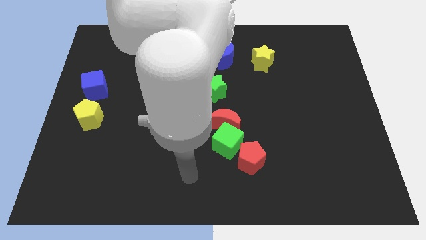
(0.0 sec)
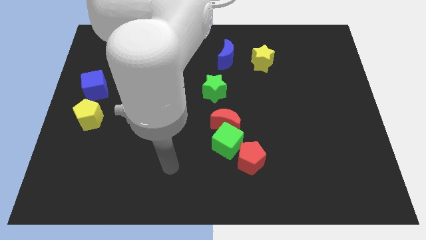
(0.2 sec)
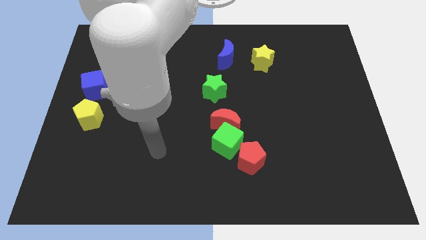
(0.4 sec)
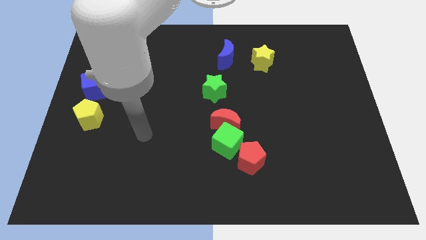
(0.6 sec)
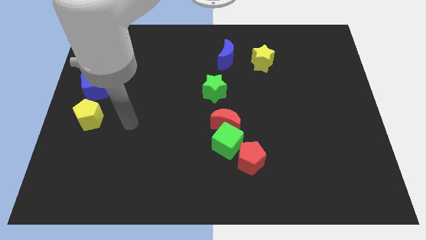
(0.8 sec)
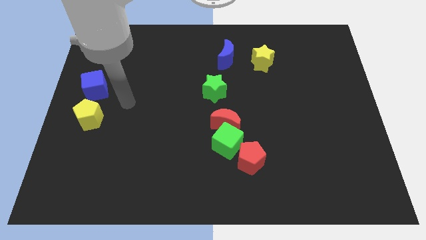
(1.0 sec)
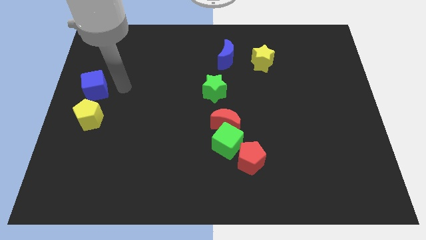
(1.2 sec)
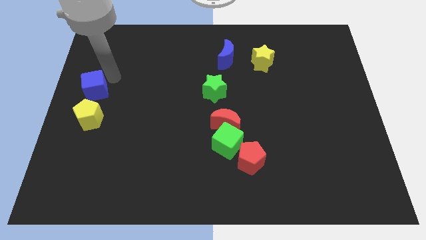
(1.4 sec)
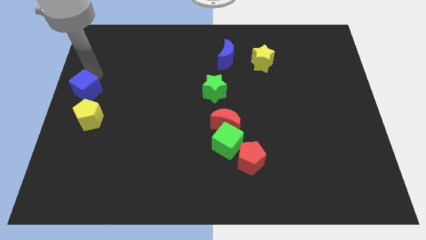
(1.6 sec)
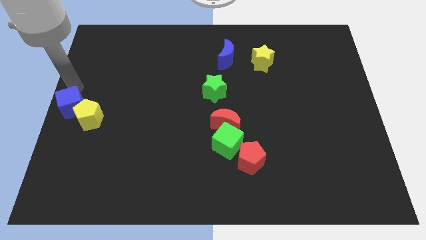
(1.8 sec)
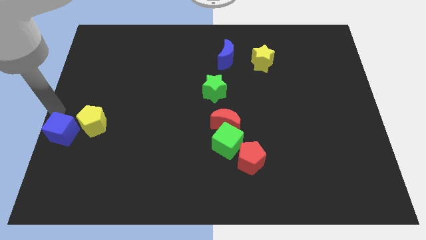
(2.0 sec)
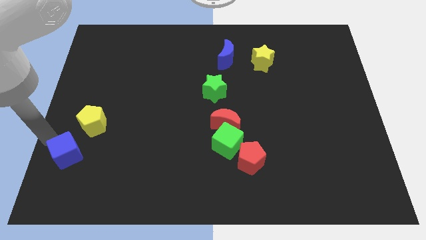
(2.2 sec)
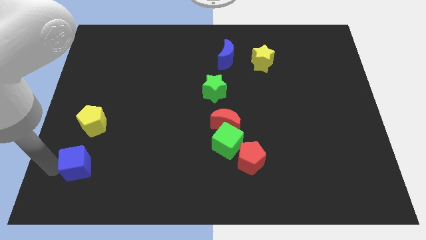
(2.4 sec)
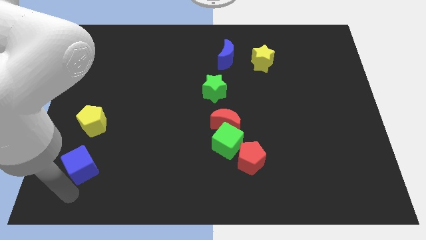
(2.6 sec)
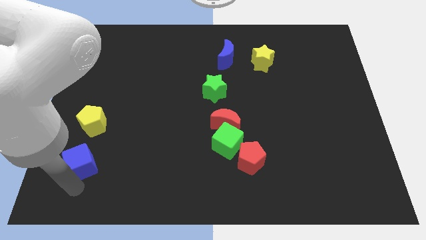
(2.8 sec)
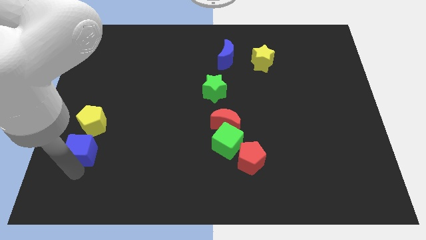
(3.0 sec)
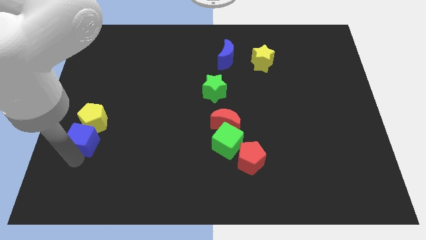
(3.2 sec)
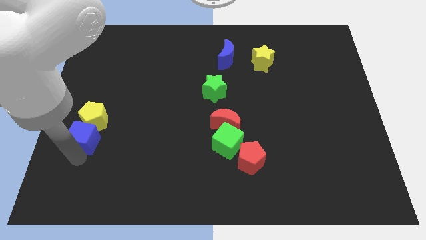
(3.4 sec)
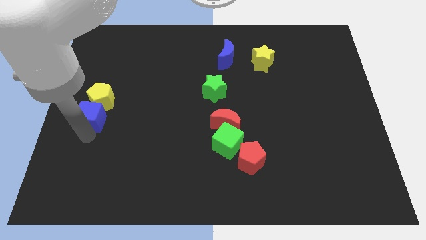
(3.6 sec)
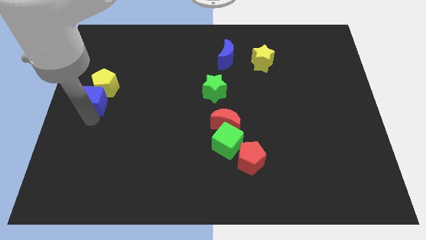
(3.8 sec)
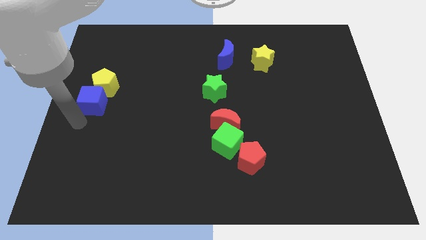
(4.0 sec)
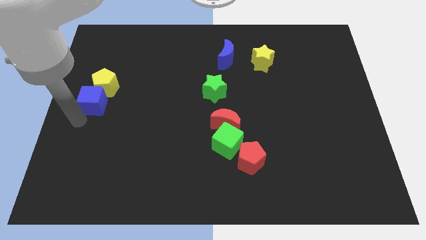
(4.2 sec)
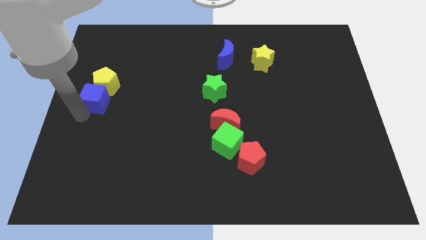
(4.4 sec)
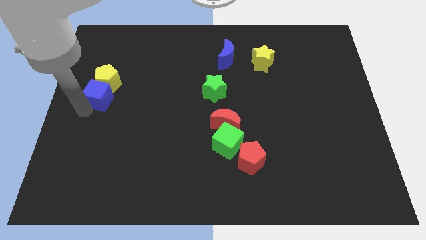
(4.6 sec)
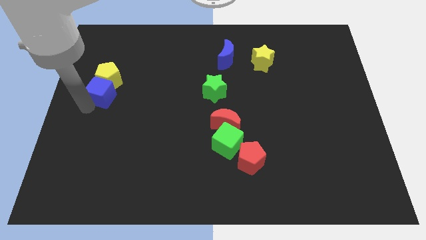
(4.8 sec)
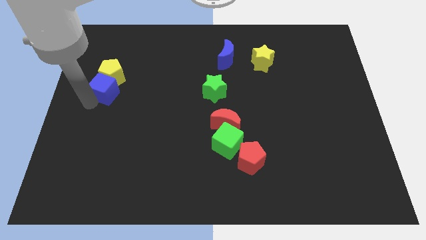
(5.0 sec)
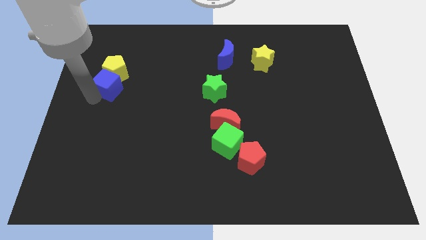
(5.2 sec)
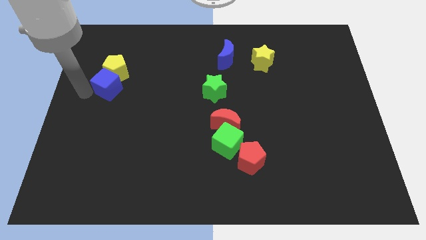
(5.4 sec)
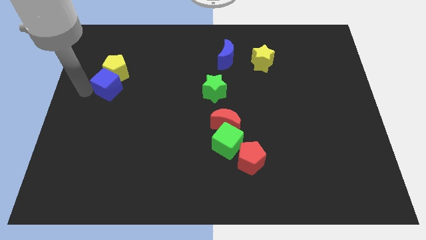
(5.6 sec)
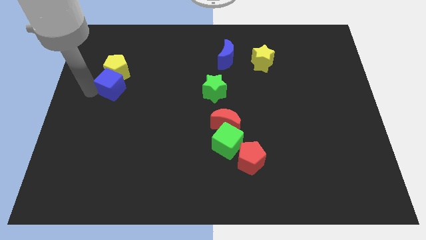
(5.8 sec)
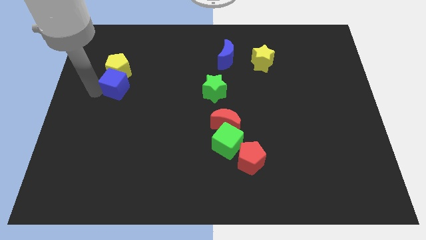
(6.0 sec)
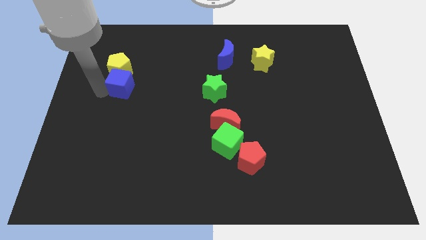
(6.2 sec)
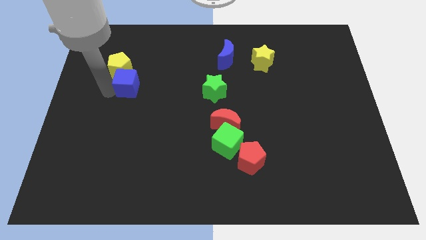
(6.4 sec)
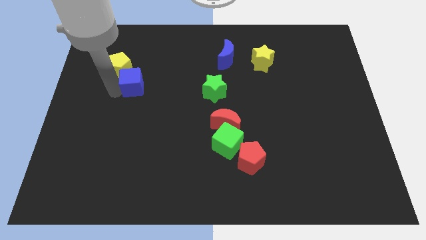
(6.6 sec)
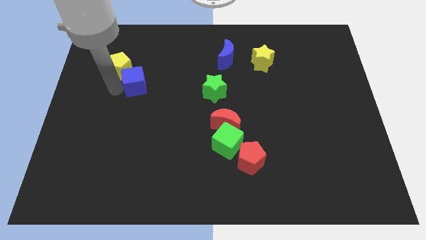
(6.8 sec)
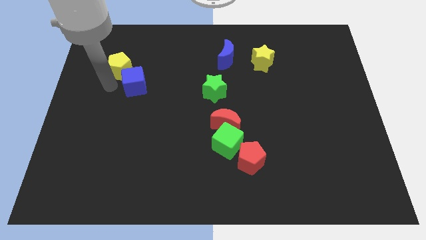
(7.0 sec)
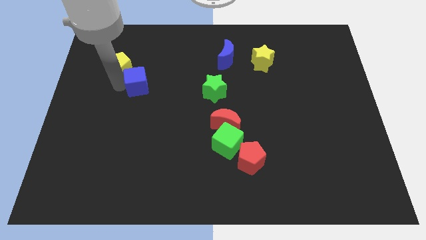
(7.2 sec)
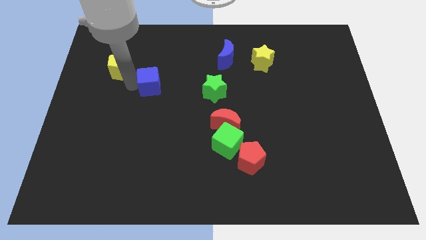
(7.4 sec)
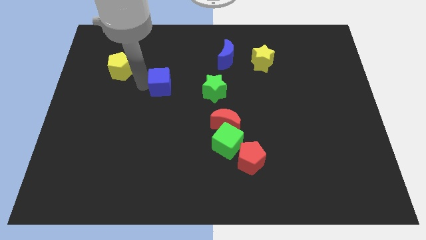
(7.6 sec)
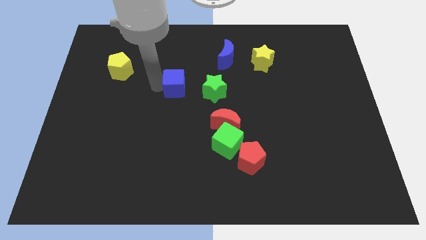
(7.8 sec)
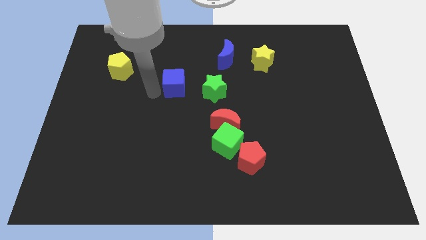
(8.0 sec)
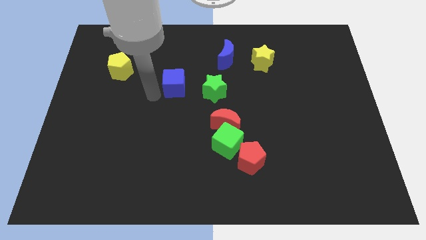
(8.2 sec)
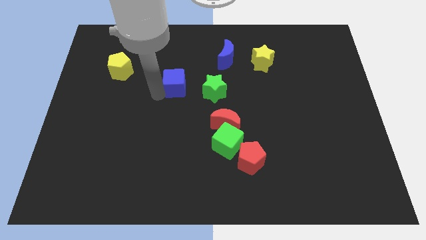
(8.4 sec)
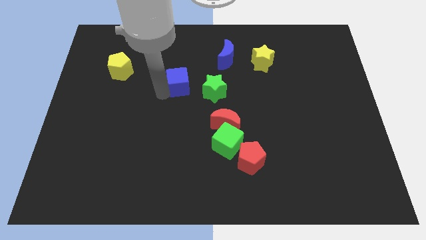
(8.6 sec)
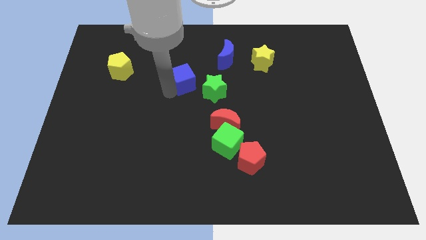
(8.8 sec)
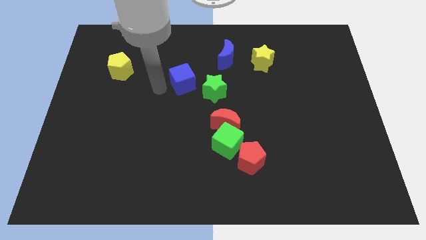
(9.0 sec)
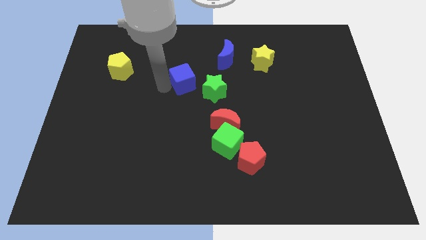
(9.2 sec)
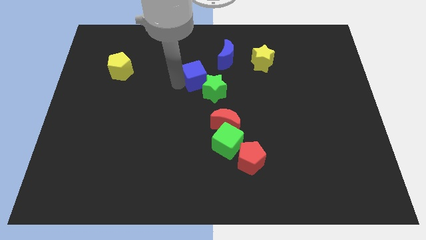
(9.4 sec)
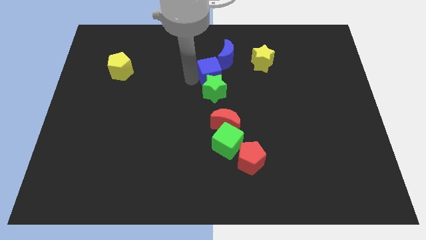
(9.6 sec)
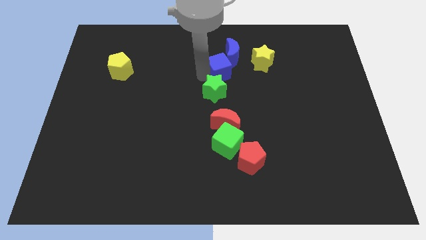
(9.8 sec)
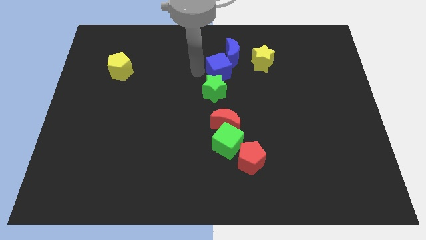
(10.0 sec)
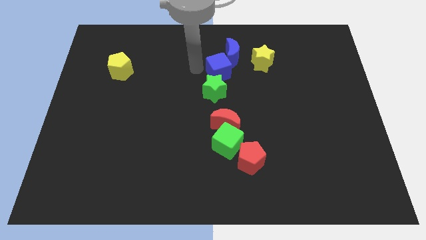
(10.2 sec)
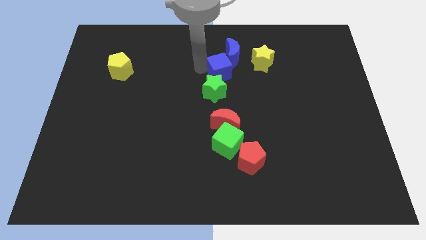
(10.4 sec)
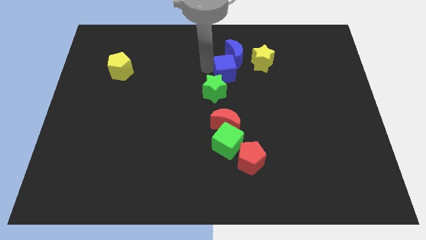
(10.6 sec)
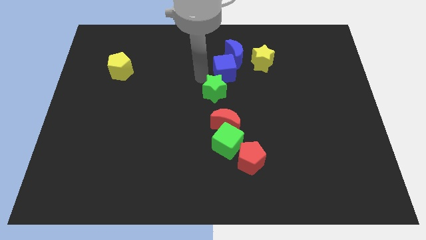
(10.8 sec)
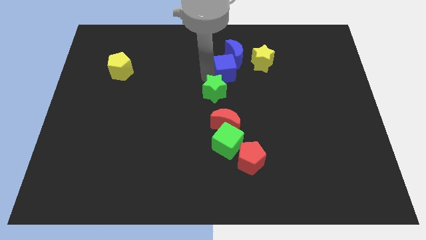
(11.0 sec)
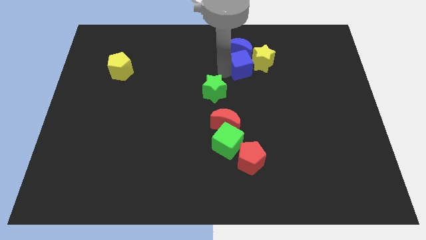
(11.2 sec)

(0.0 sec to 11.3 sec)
put the blue cube close to the yellow star

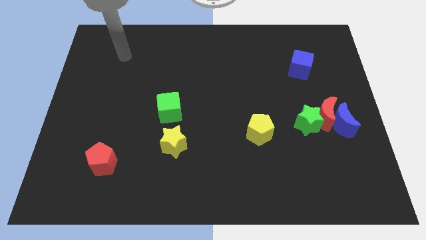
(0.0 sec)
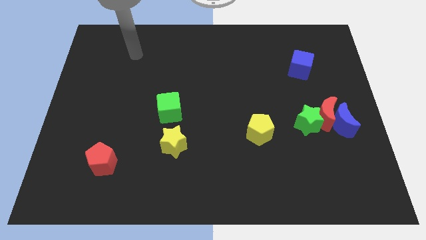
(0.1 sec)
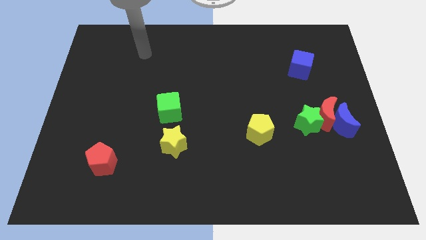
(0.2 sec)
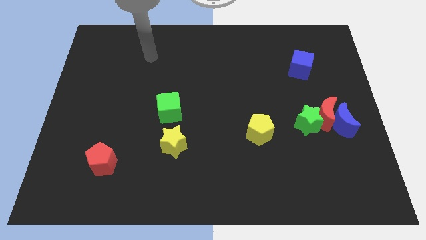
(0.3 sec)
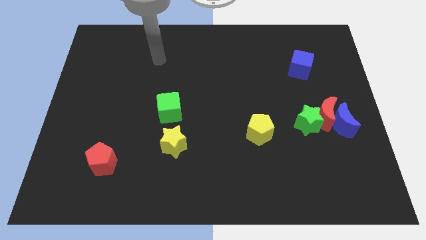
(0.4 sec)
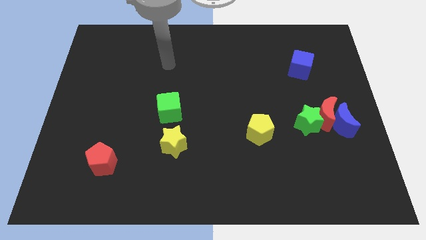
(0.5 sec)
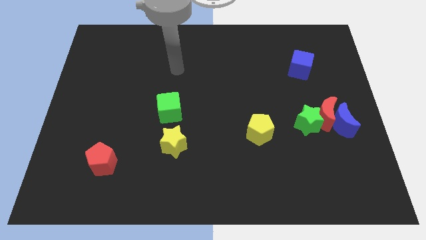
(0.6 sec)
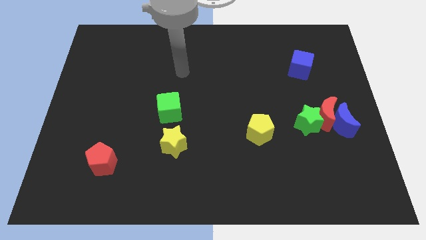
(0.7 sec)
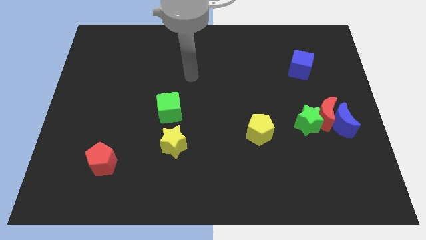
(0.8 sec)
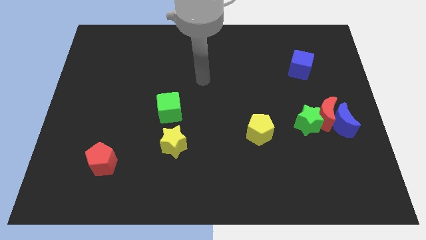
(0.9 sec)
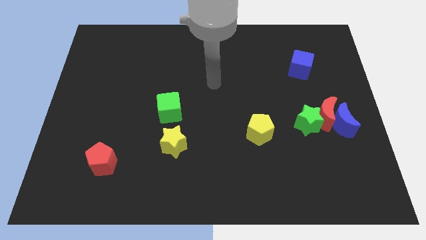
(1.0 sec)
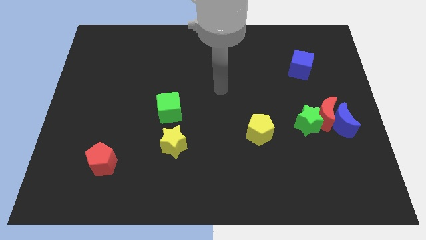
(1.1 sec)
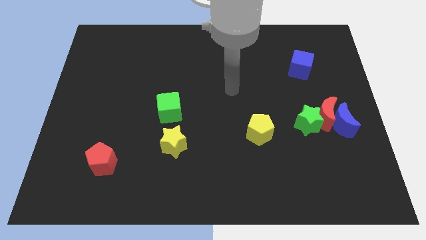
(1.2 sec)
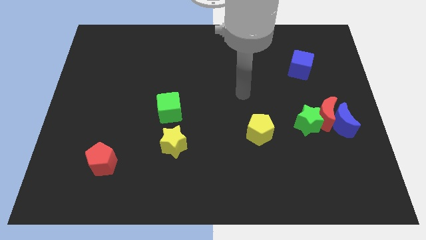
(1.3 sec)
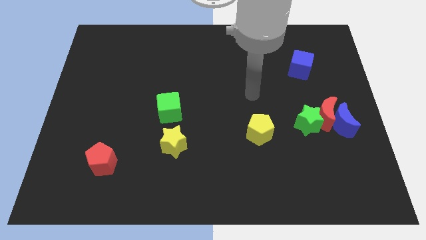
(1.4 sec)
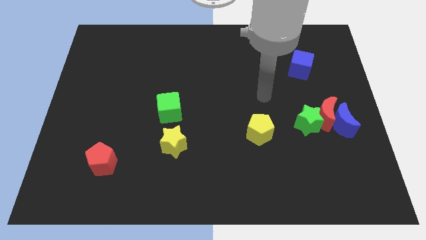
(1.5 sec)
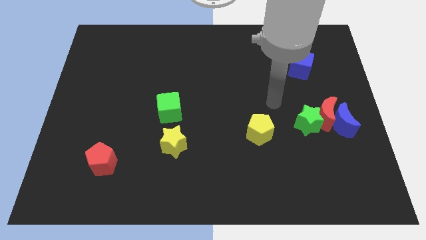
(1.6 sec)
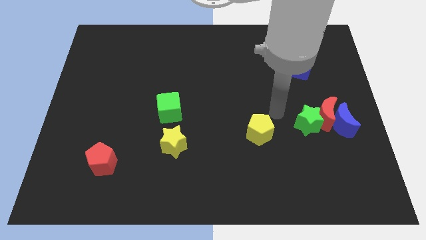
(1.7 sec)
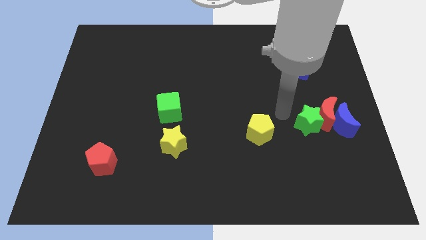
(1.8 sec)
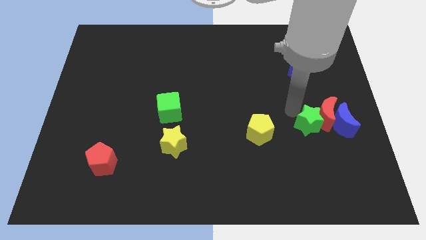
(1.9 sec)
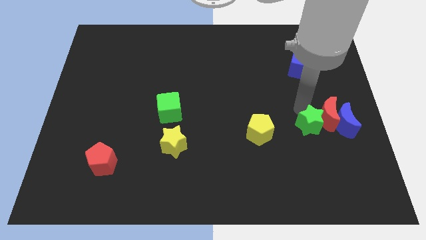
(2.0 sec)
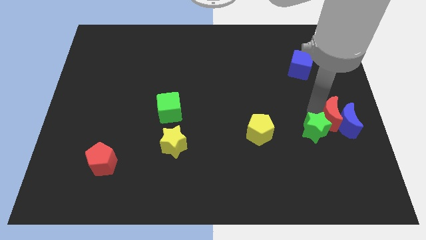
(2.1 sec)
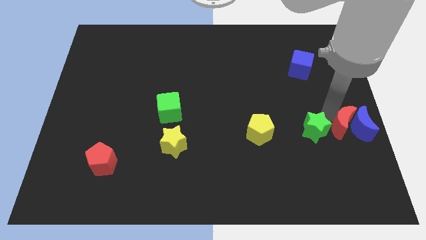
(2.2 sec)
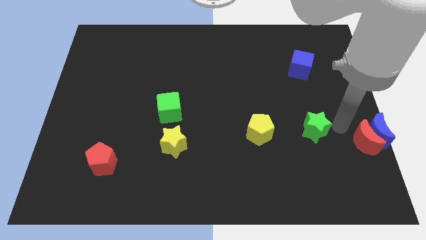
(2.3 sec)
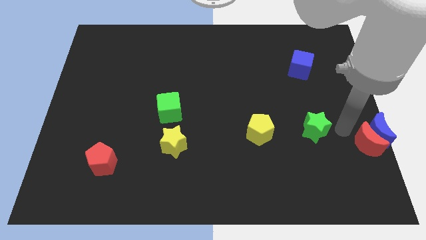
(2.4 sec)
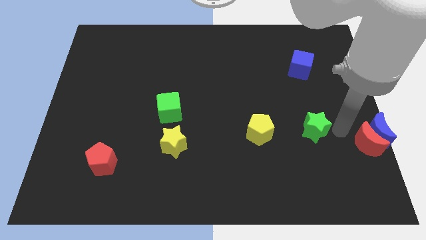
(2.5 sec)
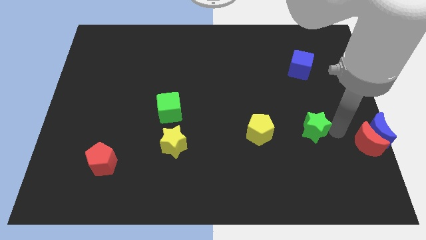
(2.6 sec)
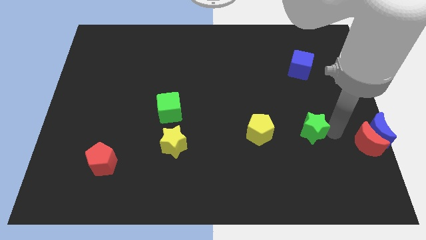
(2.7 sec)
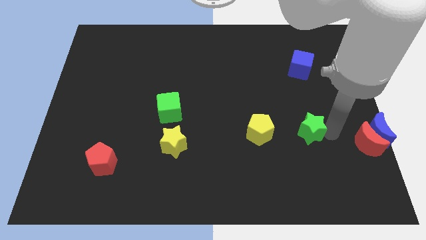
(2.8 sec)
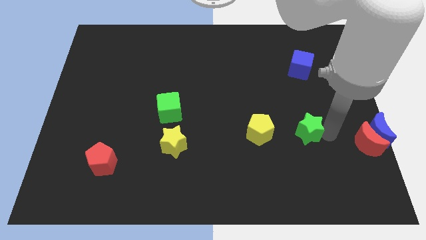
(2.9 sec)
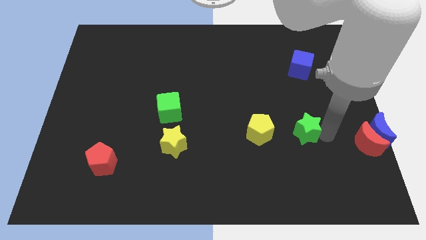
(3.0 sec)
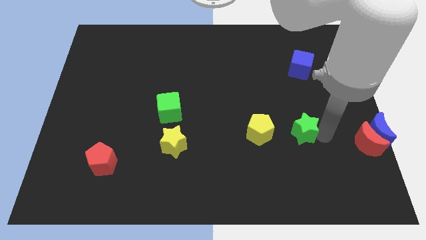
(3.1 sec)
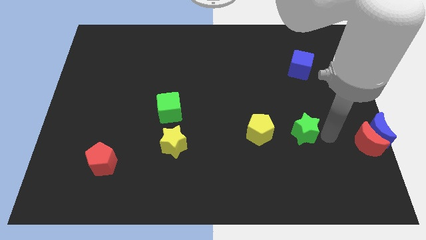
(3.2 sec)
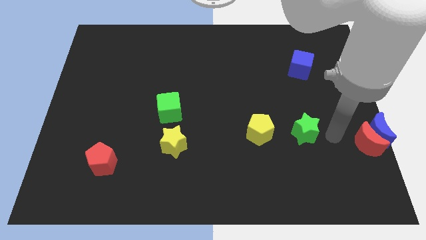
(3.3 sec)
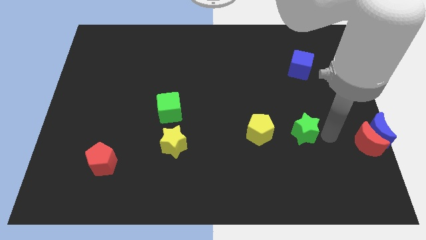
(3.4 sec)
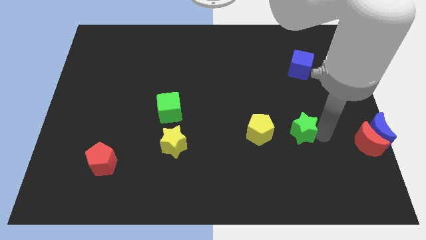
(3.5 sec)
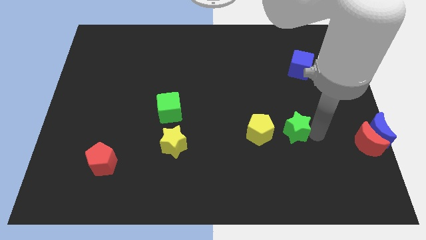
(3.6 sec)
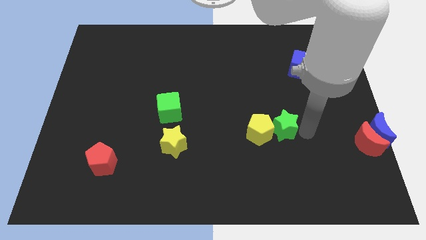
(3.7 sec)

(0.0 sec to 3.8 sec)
slide the green star next to the yellow pentagon
